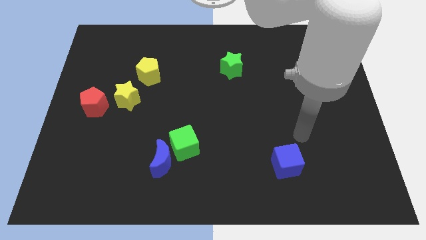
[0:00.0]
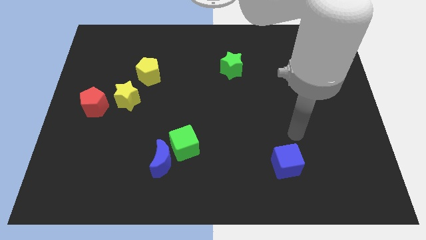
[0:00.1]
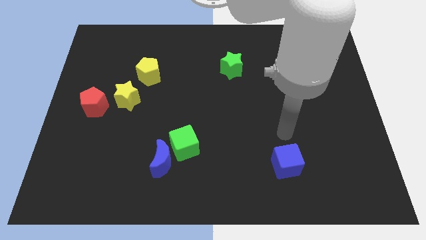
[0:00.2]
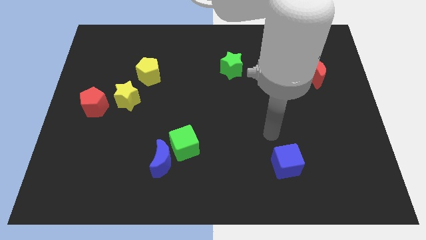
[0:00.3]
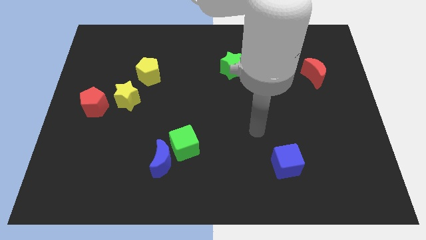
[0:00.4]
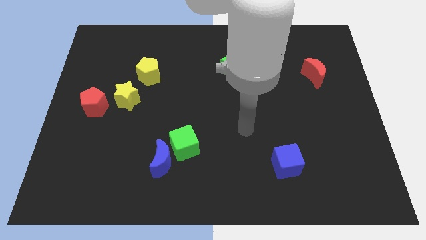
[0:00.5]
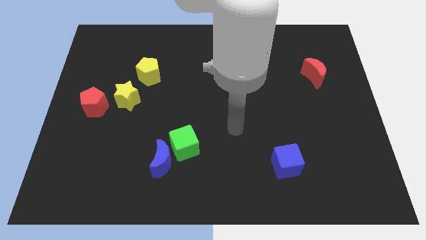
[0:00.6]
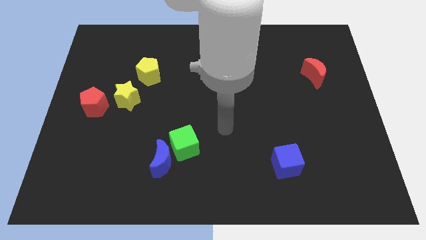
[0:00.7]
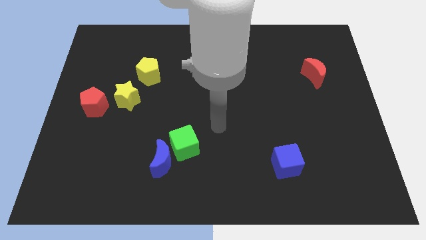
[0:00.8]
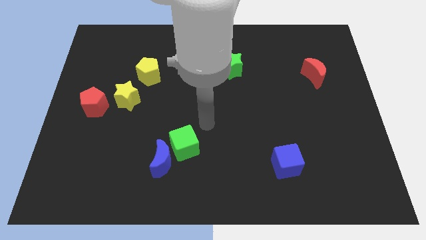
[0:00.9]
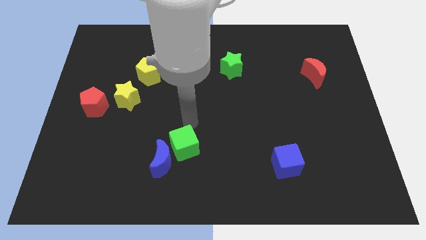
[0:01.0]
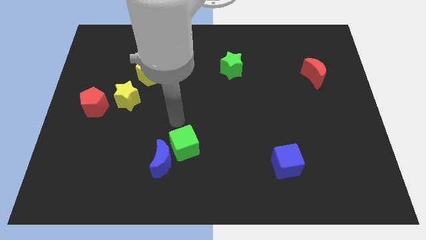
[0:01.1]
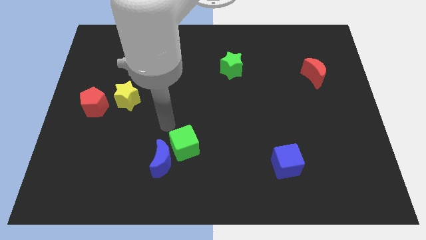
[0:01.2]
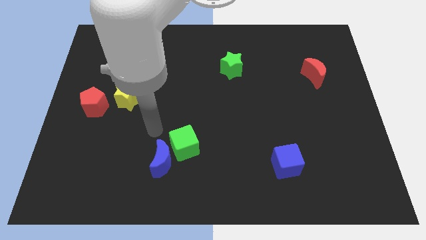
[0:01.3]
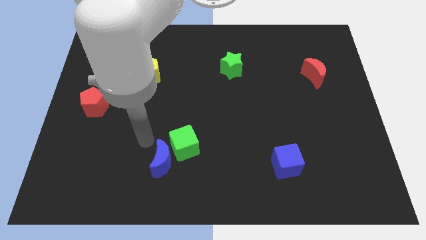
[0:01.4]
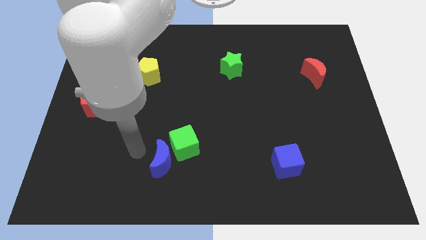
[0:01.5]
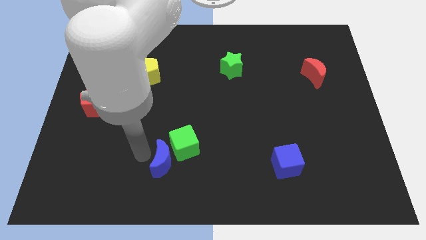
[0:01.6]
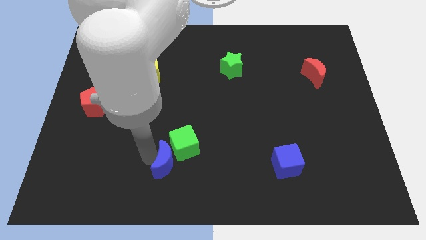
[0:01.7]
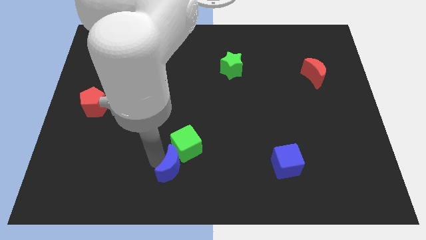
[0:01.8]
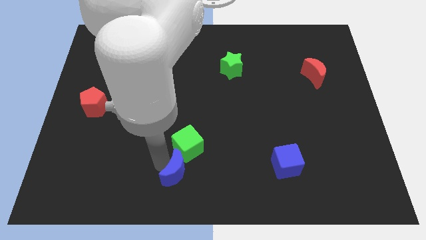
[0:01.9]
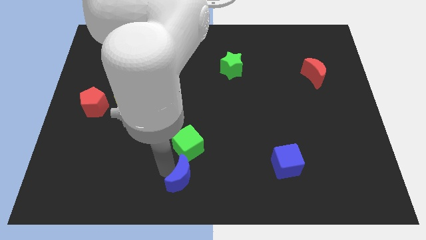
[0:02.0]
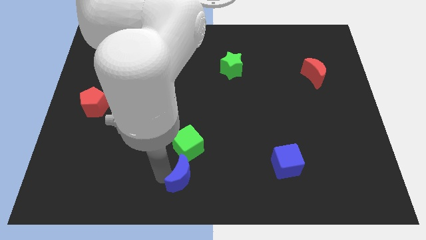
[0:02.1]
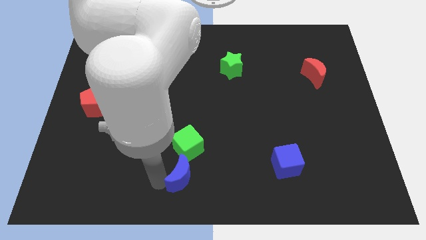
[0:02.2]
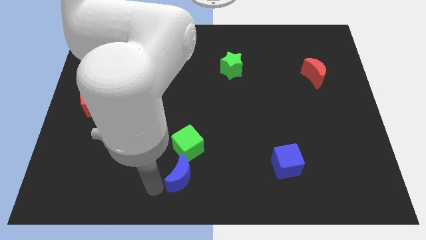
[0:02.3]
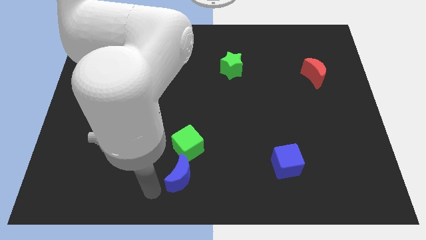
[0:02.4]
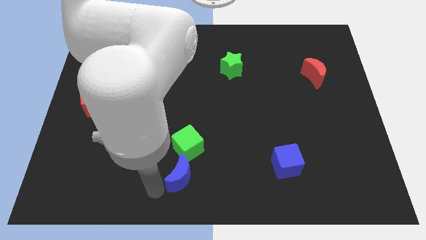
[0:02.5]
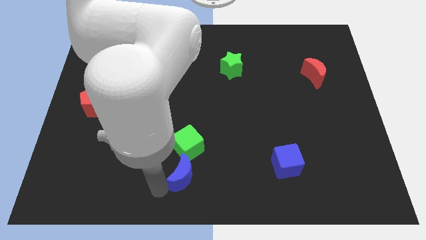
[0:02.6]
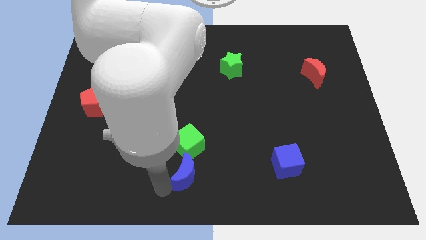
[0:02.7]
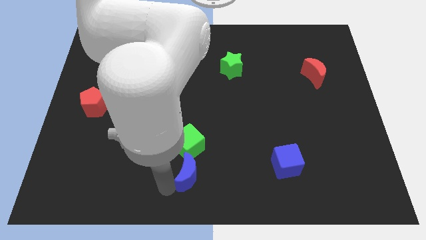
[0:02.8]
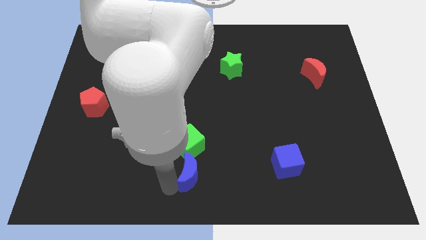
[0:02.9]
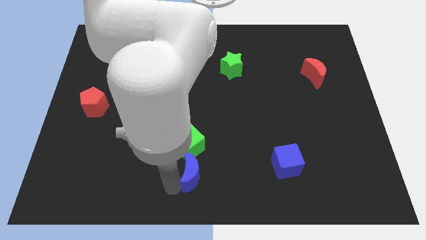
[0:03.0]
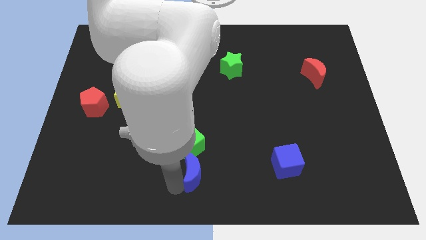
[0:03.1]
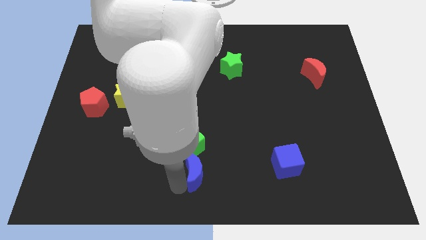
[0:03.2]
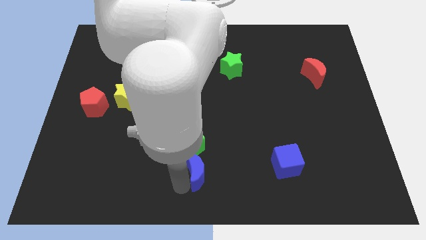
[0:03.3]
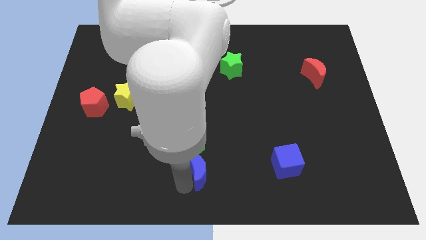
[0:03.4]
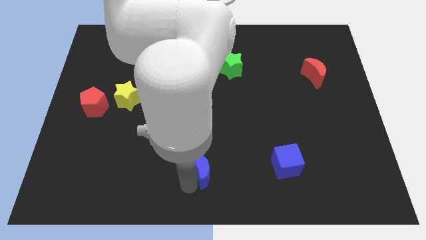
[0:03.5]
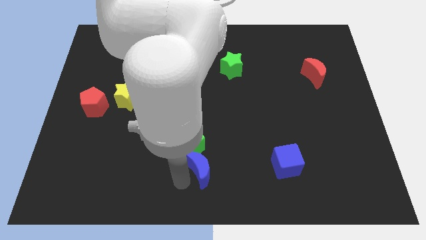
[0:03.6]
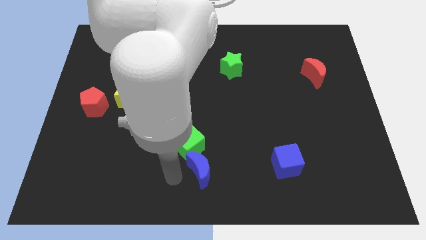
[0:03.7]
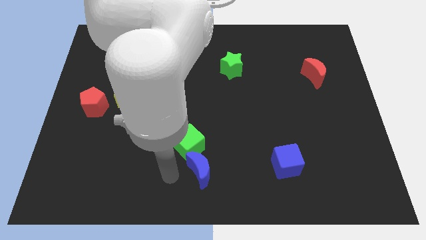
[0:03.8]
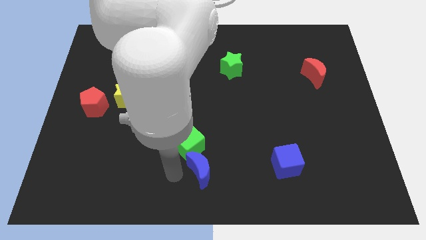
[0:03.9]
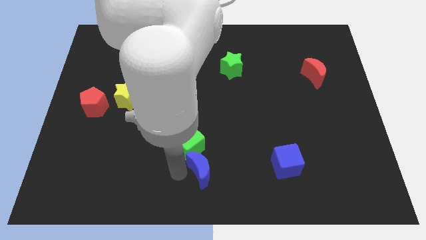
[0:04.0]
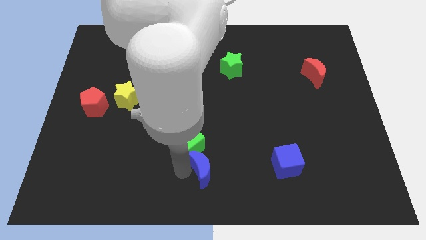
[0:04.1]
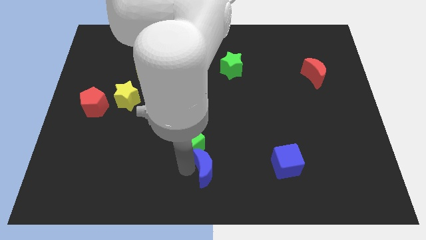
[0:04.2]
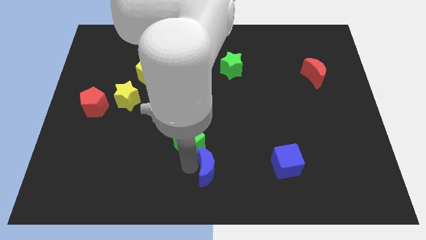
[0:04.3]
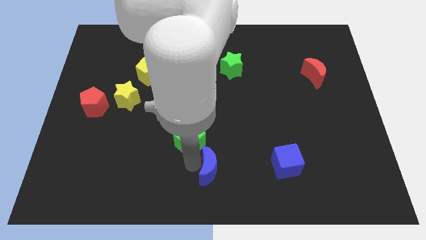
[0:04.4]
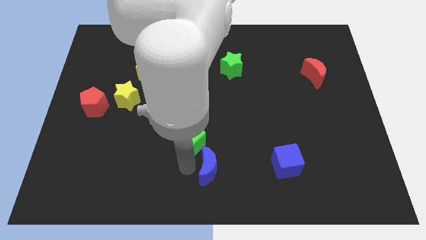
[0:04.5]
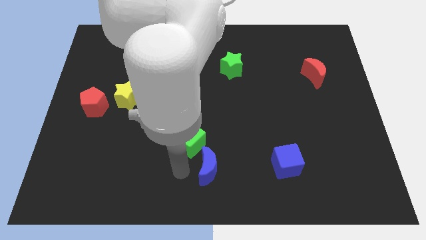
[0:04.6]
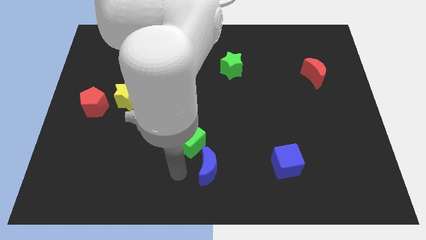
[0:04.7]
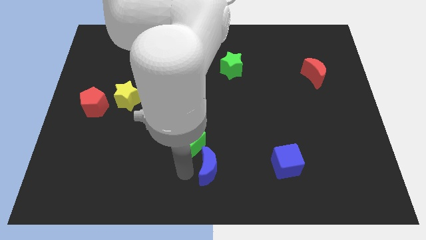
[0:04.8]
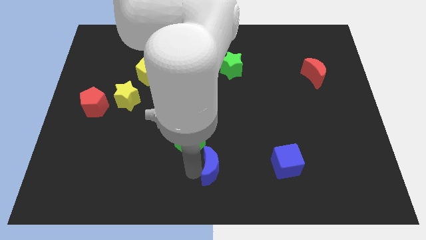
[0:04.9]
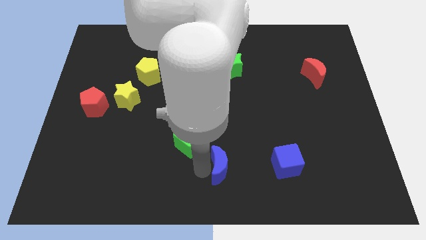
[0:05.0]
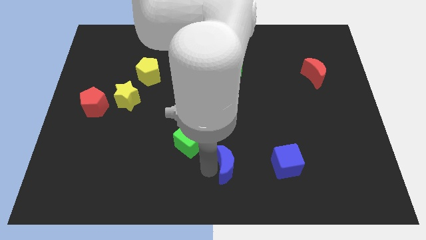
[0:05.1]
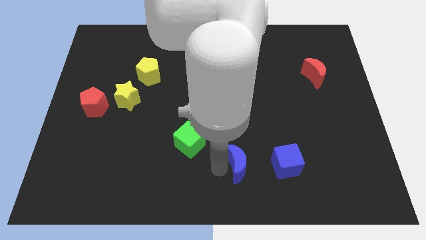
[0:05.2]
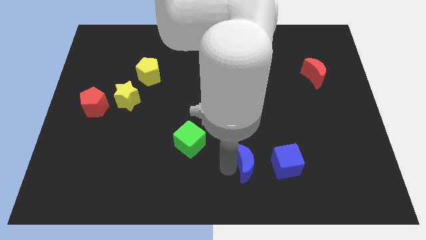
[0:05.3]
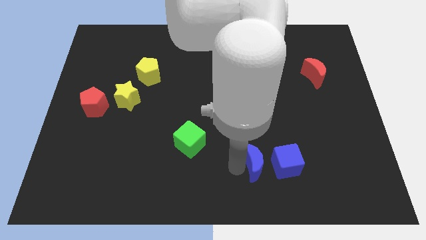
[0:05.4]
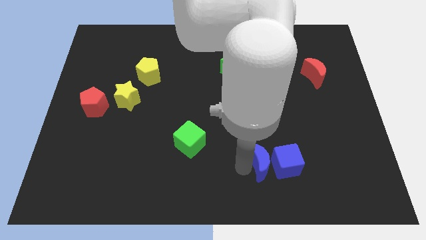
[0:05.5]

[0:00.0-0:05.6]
move the blue moon next to the blue cube
